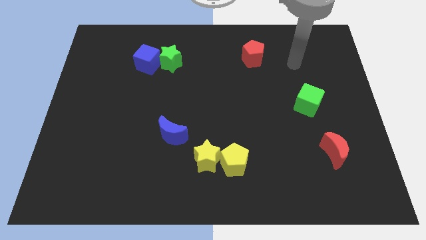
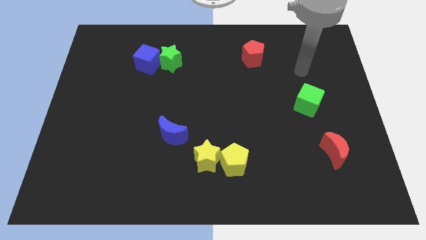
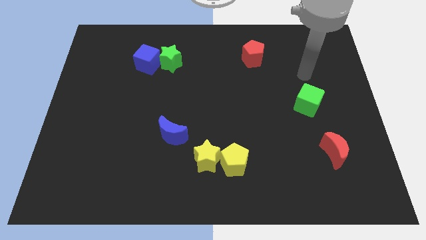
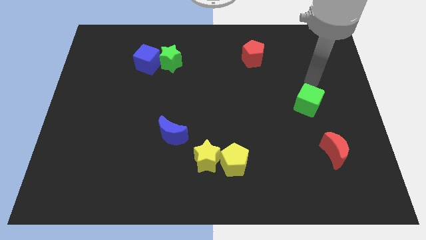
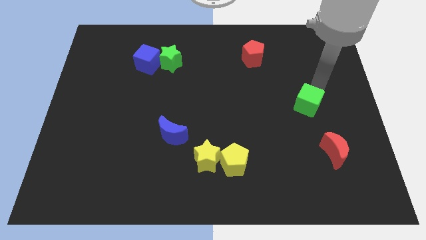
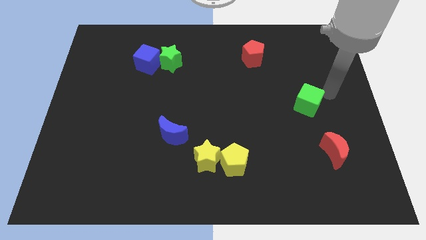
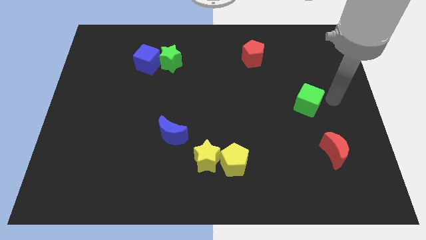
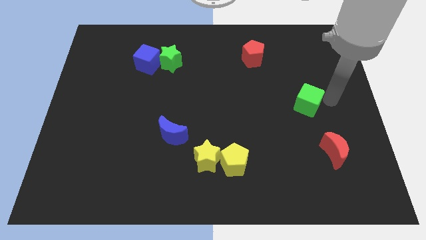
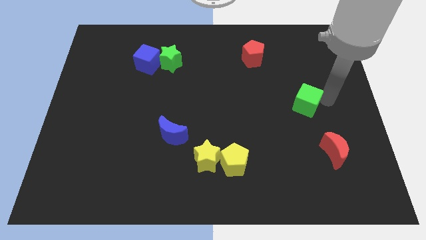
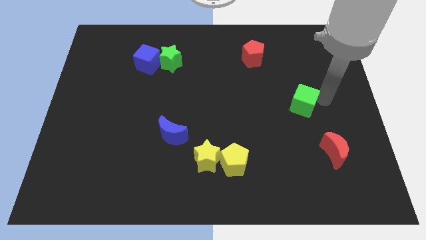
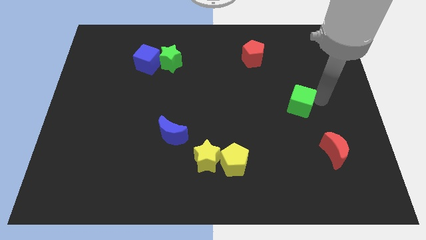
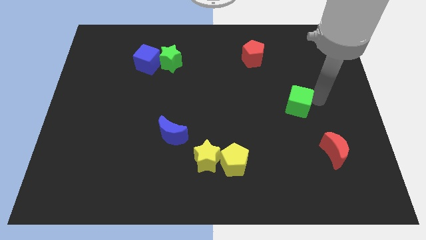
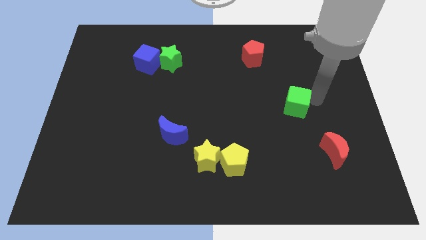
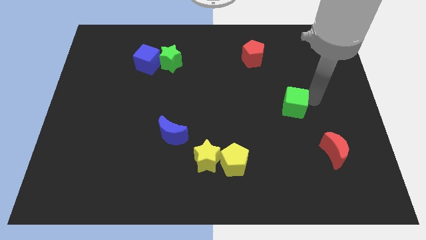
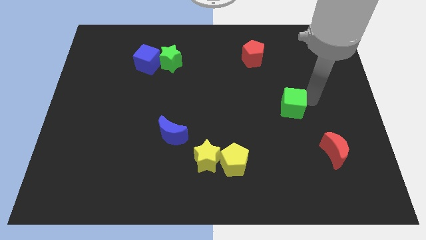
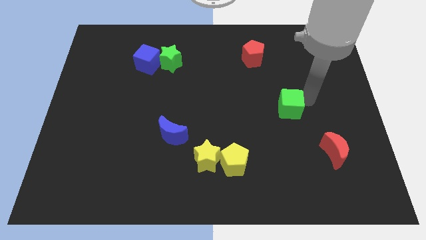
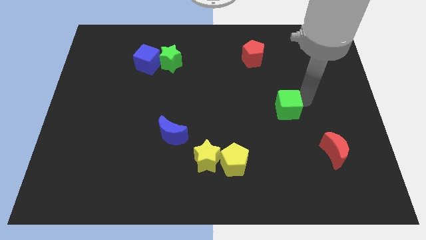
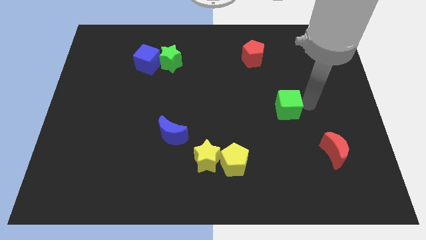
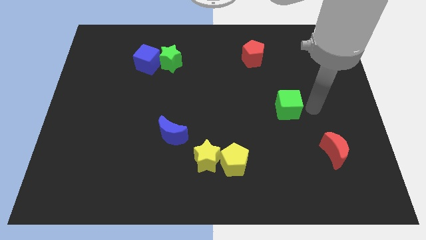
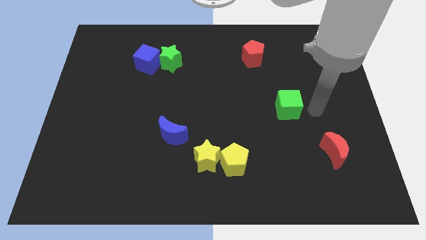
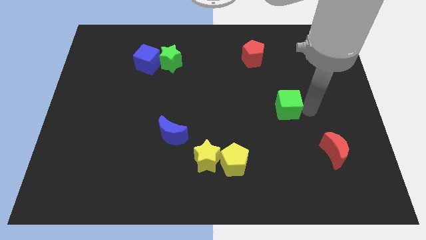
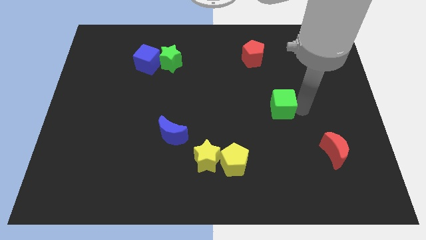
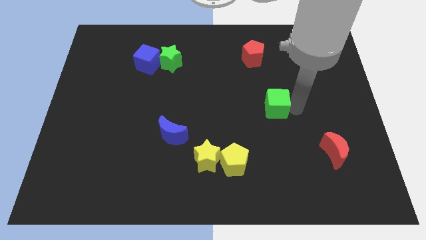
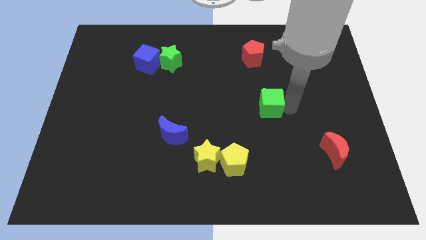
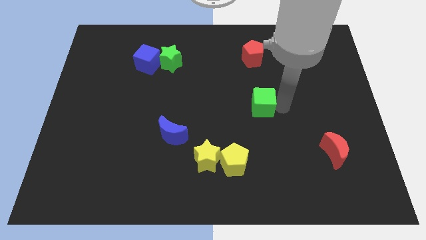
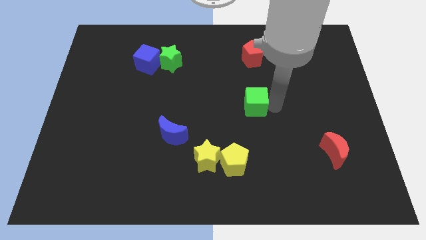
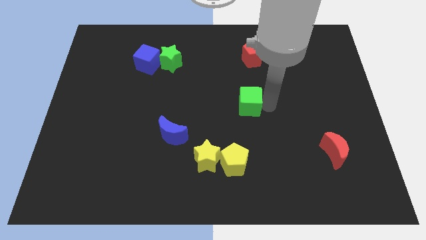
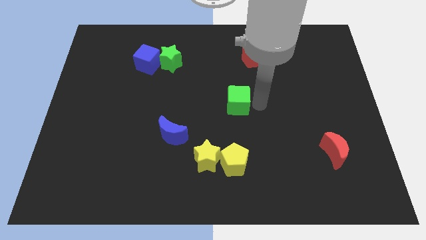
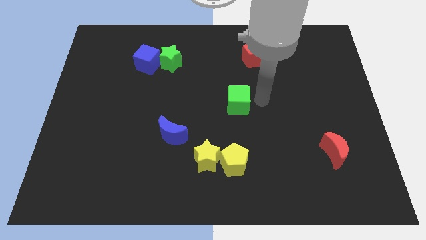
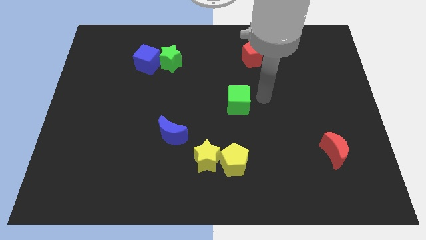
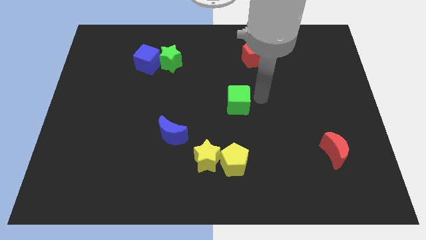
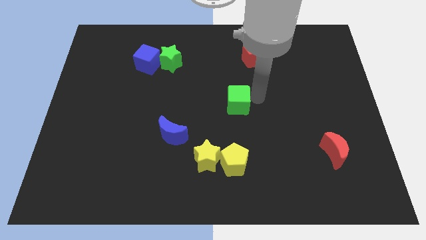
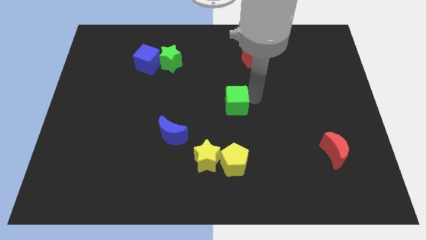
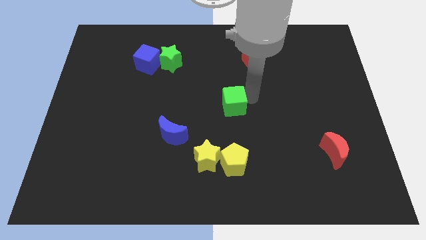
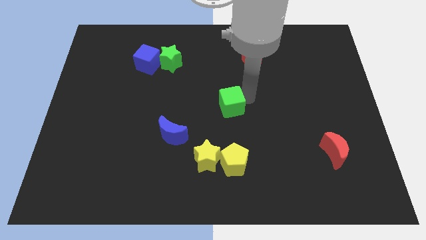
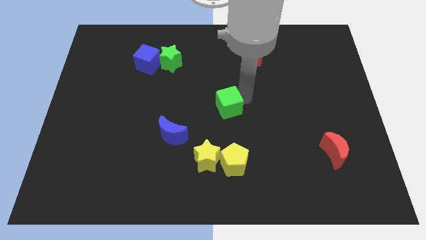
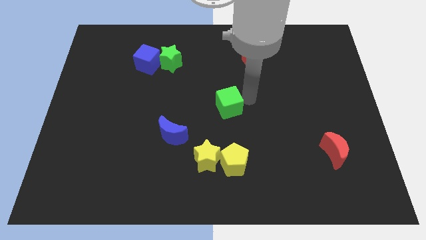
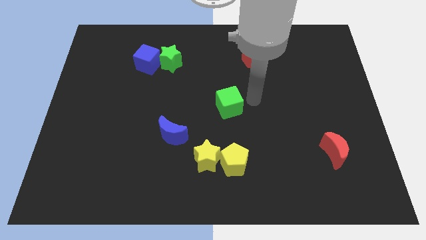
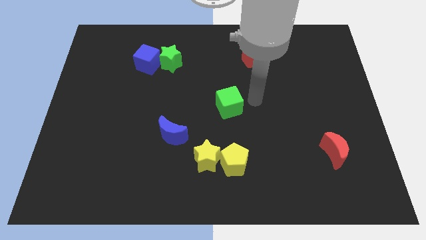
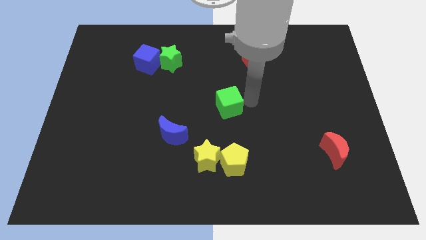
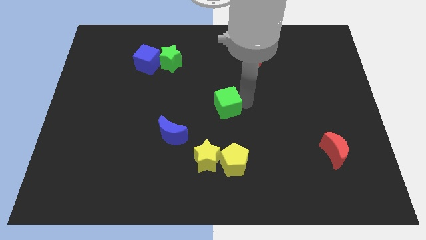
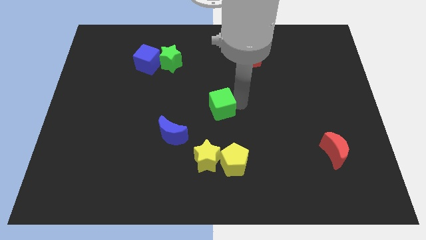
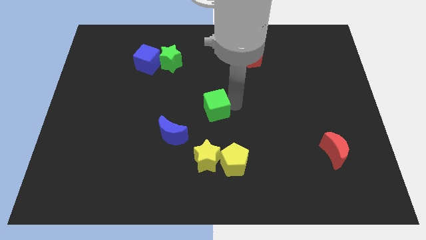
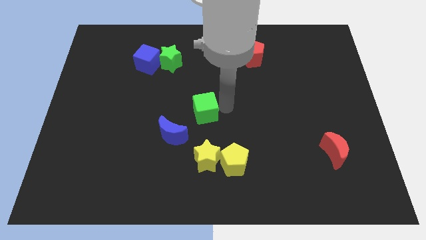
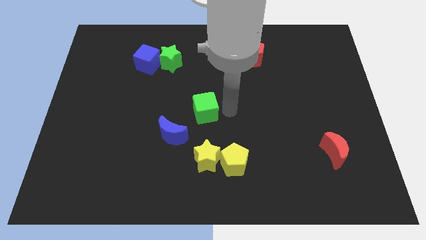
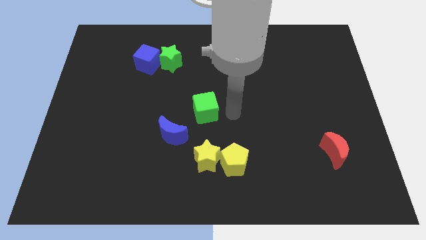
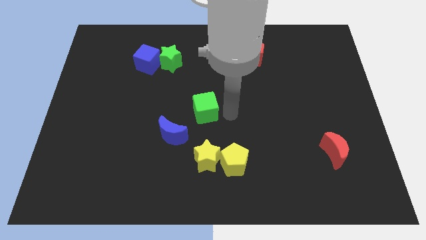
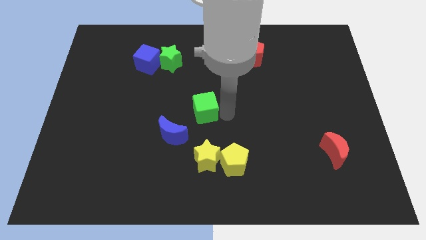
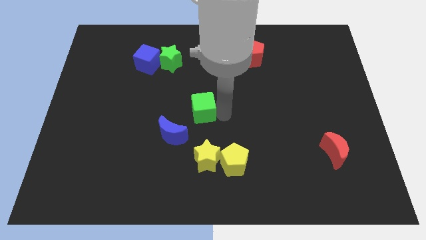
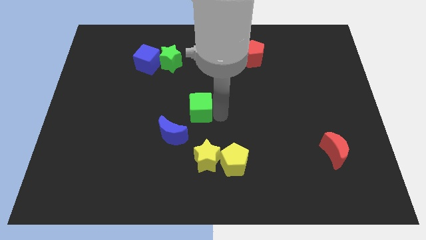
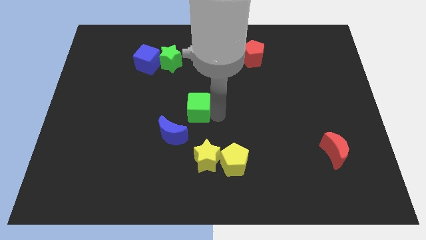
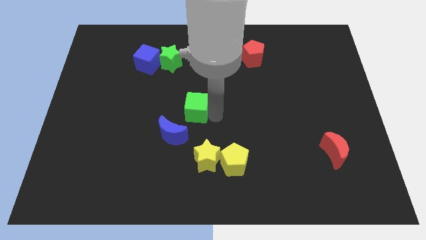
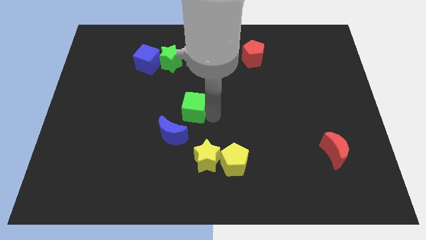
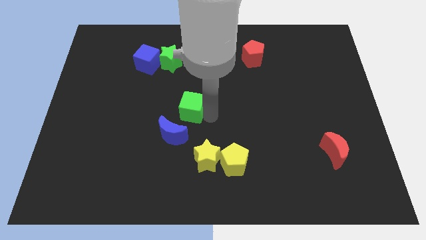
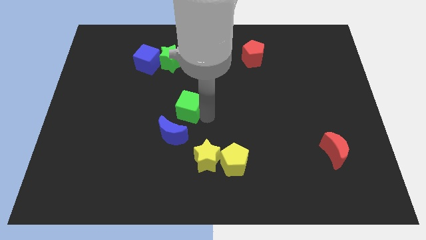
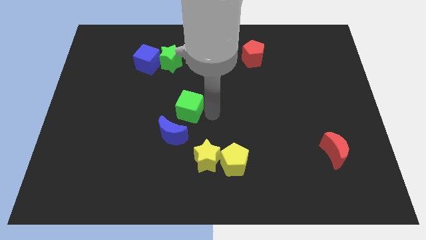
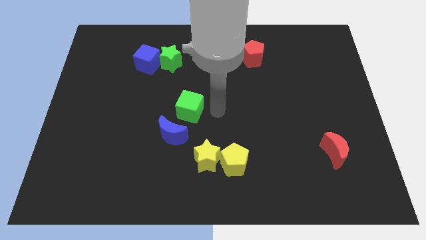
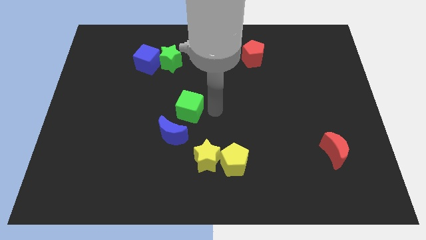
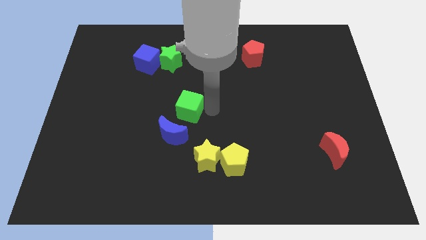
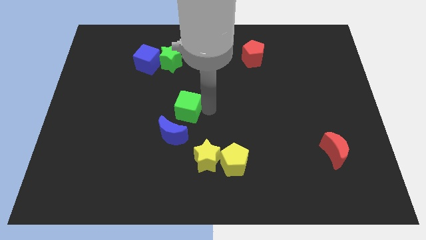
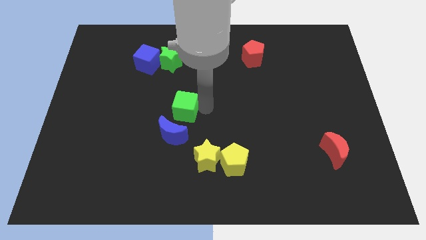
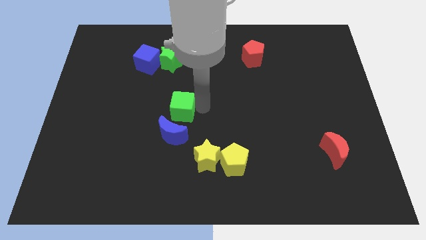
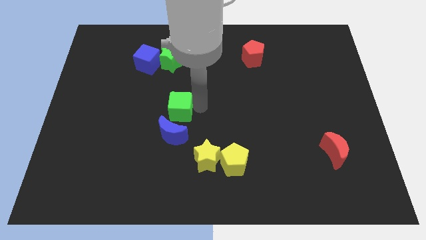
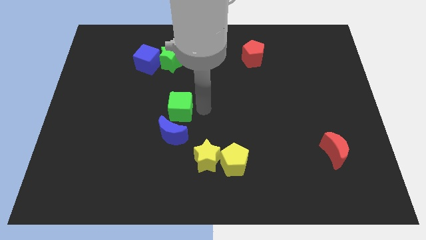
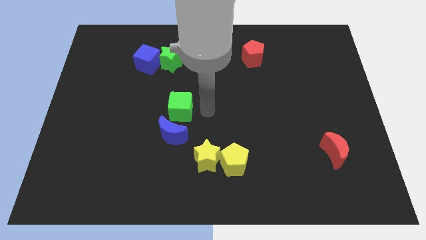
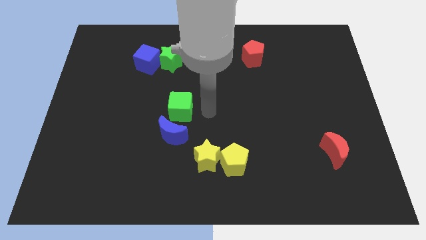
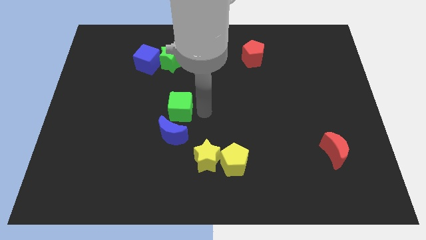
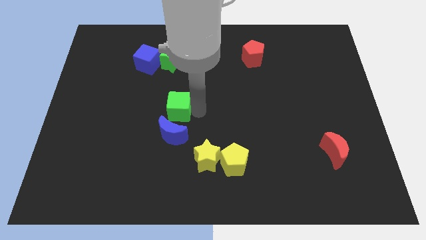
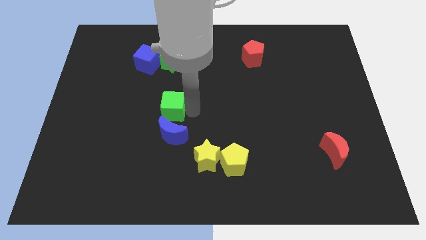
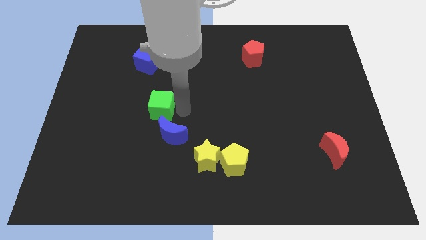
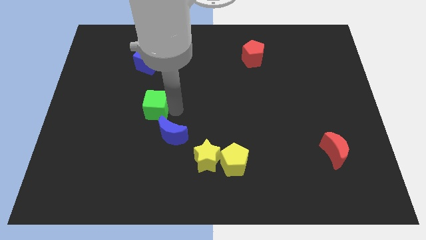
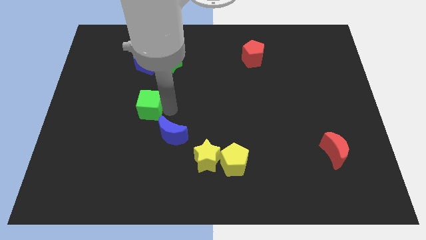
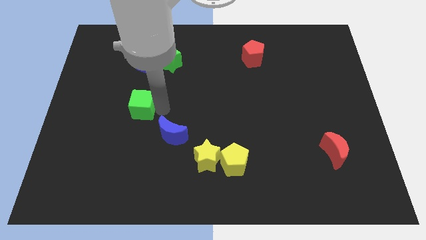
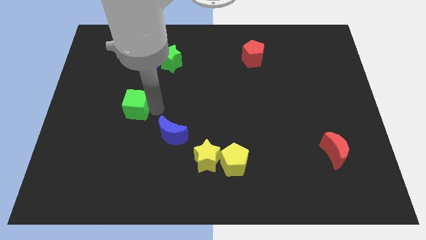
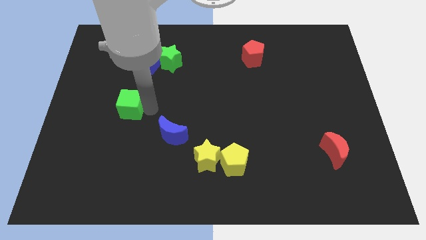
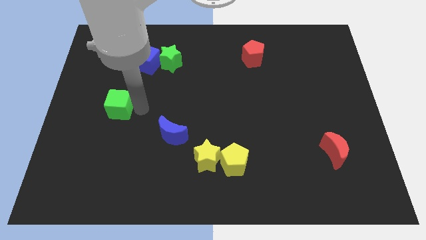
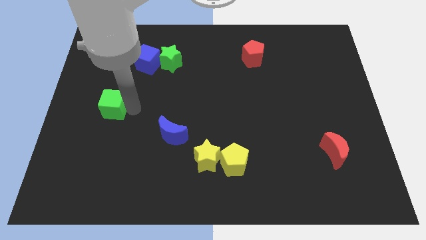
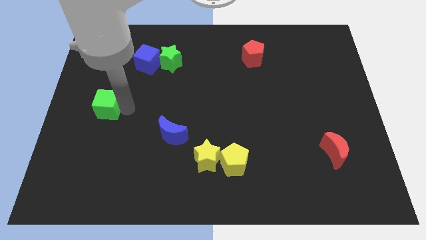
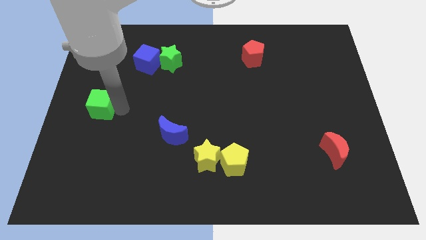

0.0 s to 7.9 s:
put the green cube to the left side of the board
